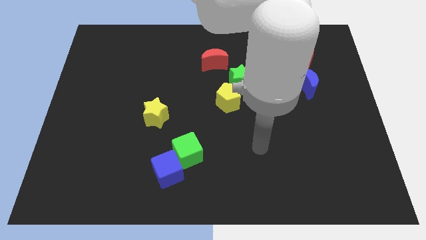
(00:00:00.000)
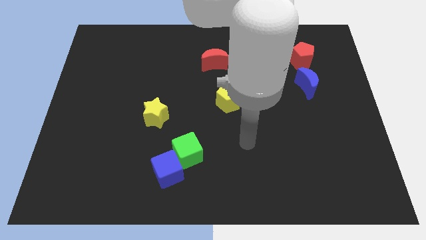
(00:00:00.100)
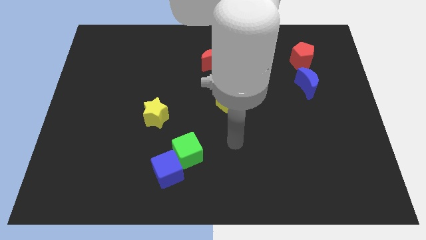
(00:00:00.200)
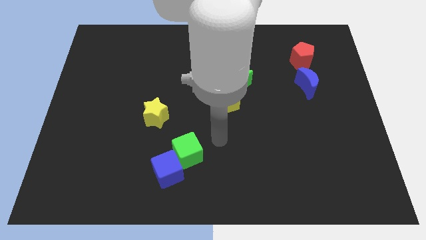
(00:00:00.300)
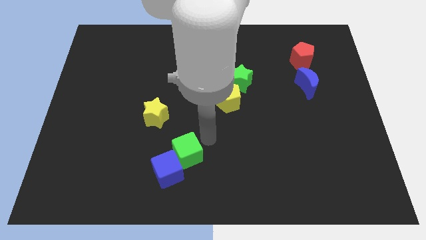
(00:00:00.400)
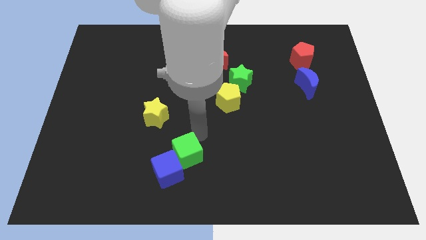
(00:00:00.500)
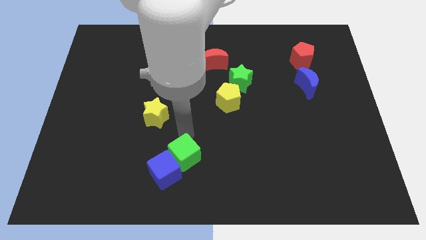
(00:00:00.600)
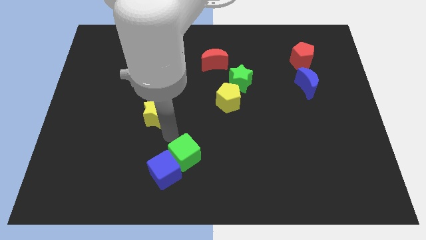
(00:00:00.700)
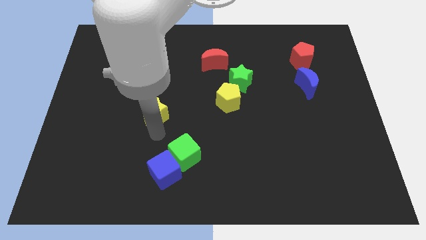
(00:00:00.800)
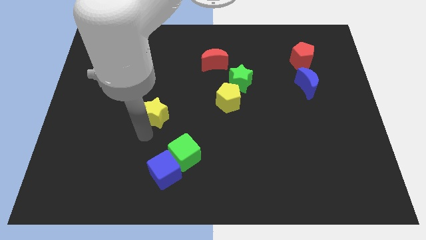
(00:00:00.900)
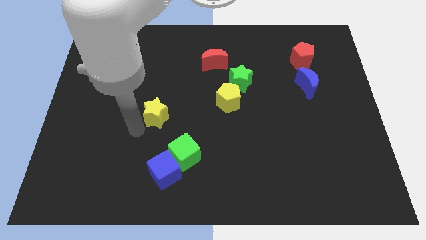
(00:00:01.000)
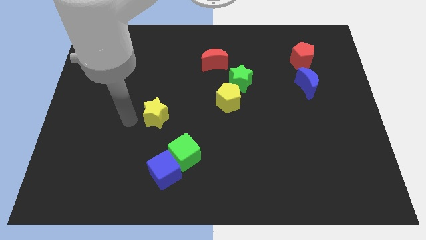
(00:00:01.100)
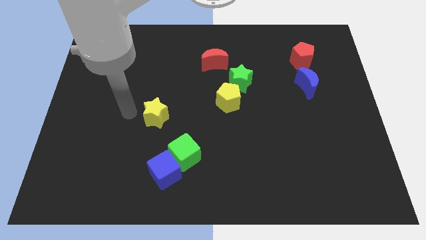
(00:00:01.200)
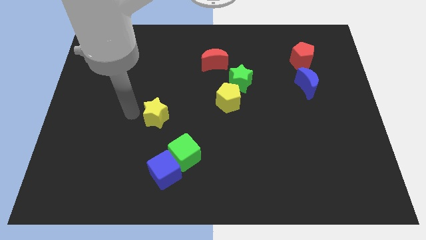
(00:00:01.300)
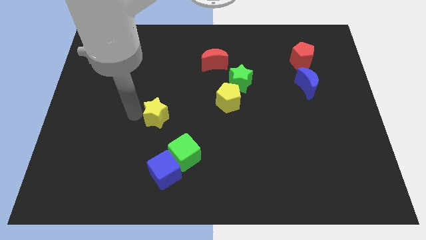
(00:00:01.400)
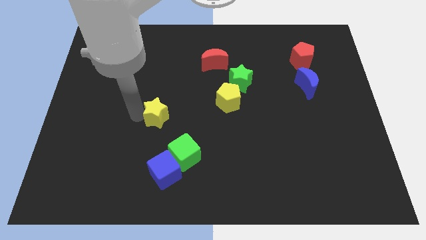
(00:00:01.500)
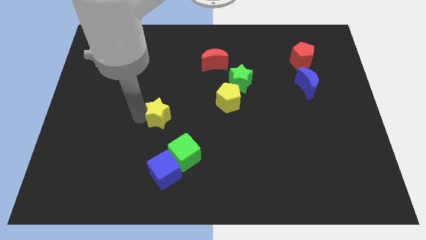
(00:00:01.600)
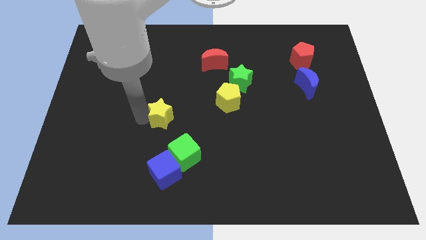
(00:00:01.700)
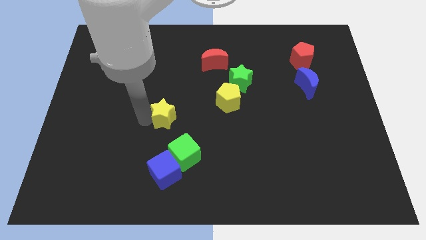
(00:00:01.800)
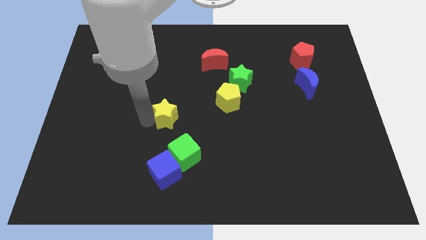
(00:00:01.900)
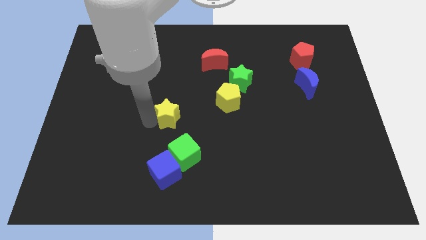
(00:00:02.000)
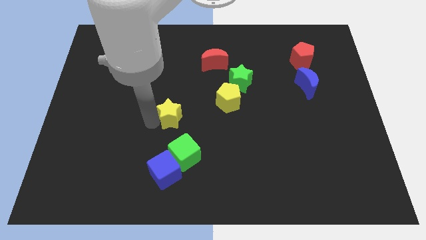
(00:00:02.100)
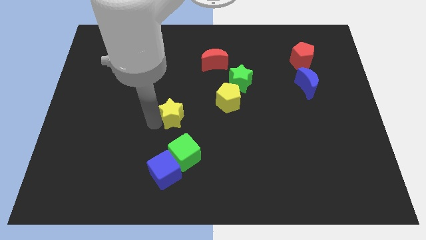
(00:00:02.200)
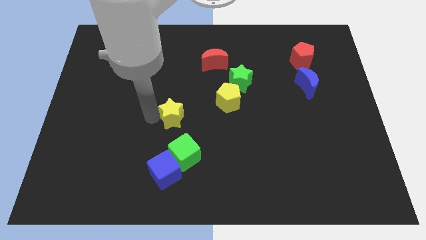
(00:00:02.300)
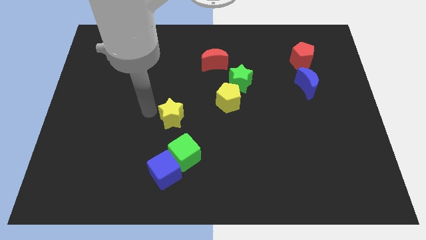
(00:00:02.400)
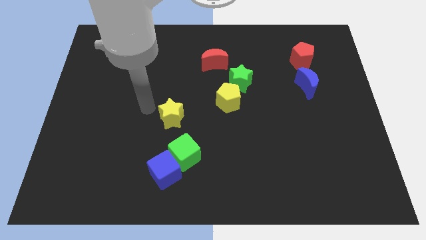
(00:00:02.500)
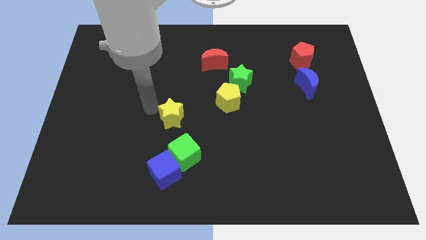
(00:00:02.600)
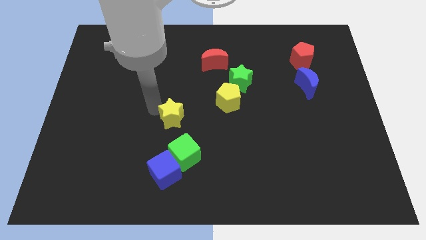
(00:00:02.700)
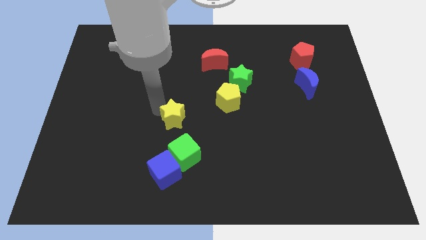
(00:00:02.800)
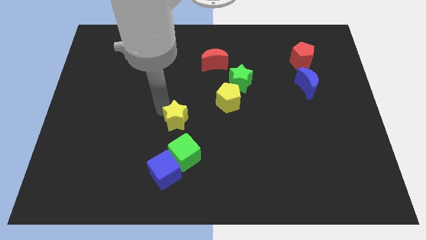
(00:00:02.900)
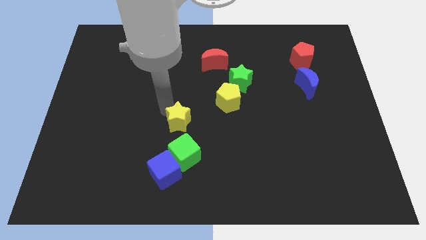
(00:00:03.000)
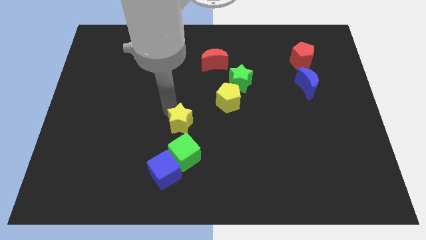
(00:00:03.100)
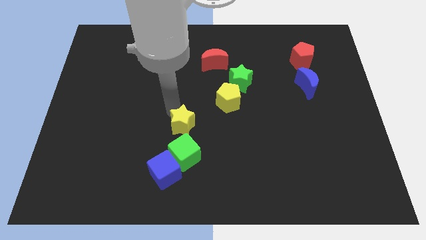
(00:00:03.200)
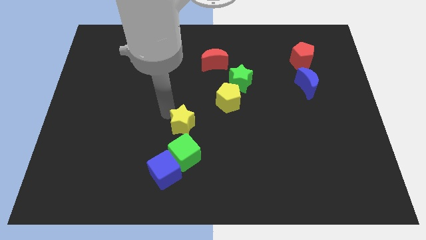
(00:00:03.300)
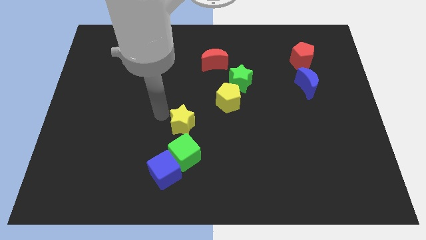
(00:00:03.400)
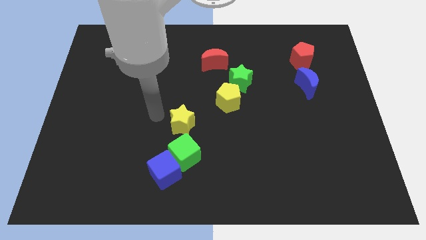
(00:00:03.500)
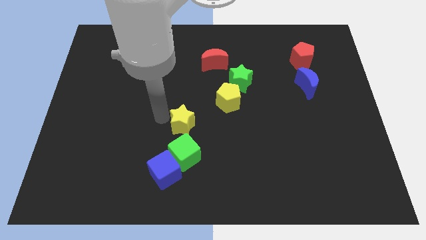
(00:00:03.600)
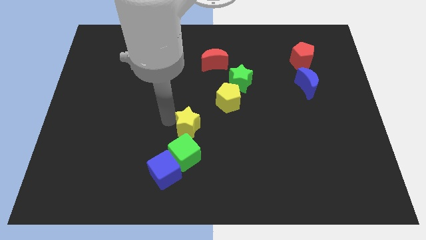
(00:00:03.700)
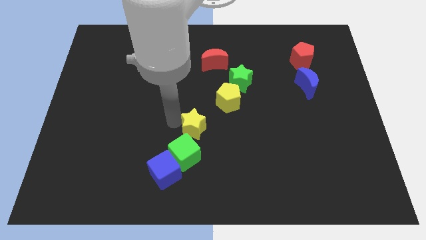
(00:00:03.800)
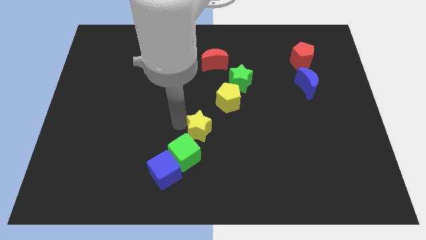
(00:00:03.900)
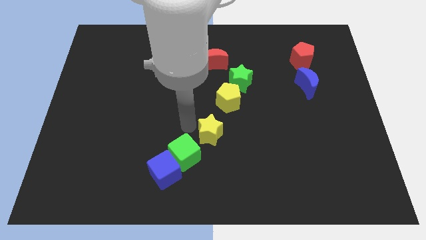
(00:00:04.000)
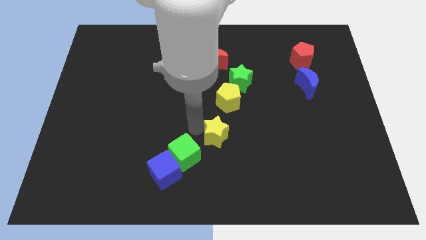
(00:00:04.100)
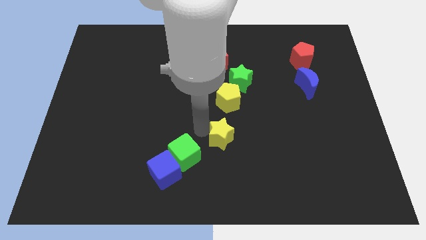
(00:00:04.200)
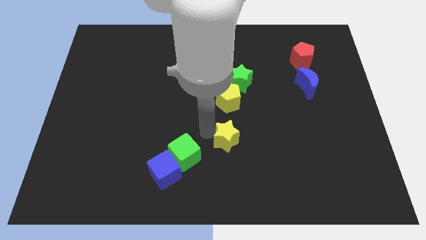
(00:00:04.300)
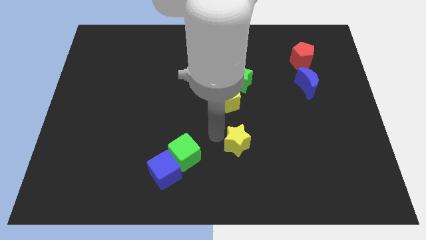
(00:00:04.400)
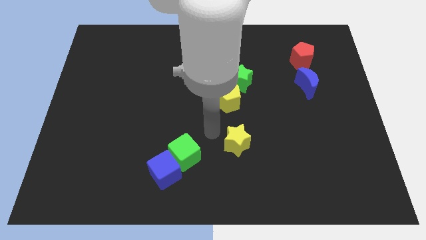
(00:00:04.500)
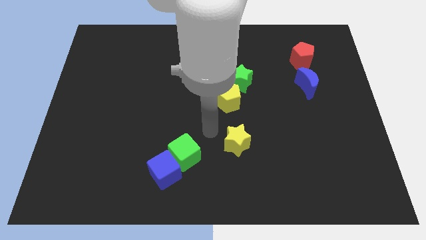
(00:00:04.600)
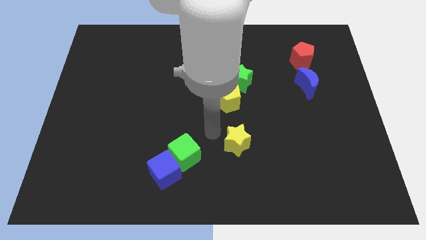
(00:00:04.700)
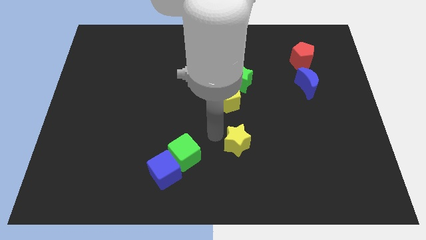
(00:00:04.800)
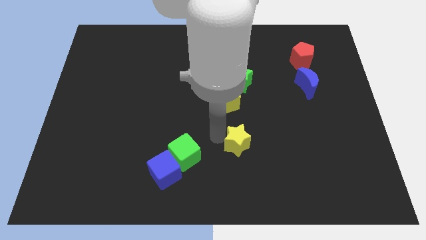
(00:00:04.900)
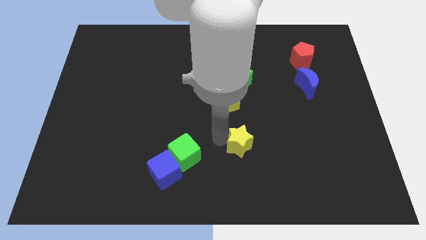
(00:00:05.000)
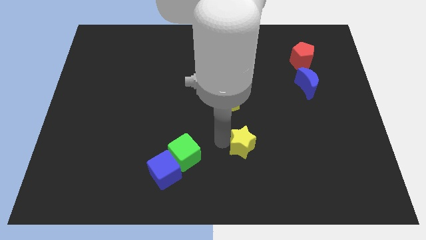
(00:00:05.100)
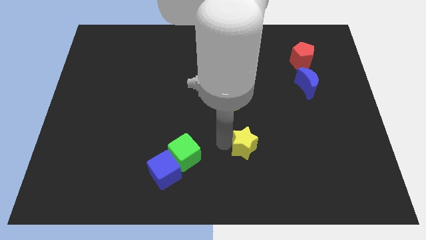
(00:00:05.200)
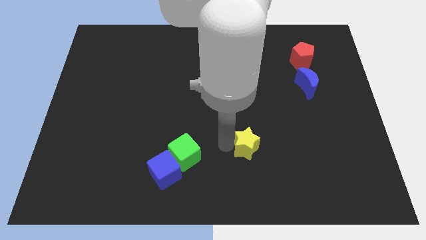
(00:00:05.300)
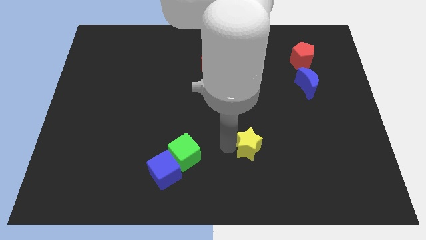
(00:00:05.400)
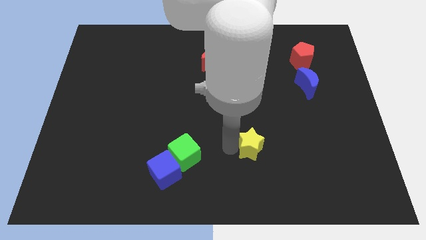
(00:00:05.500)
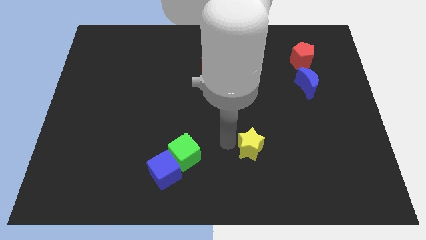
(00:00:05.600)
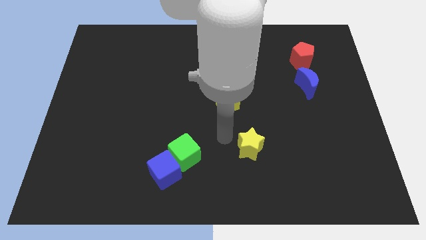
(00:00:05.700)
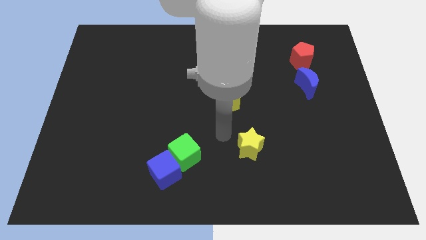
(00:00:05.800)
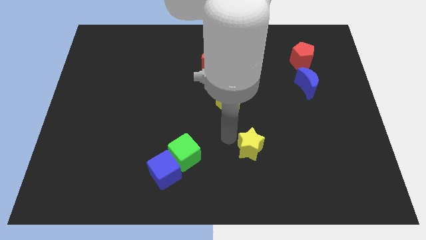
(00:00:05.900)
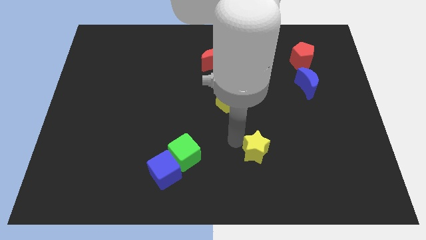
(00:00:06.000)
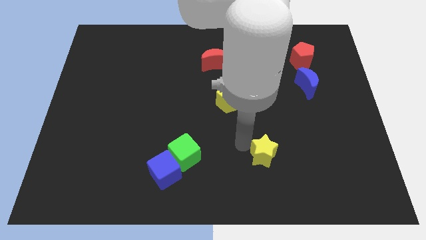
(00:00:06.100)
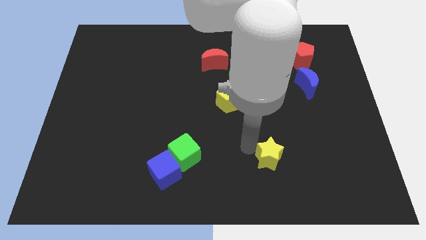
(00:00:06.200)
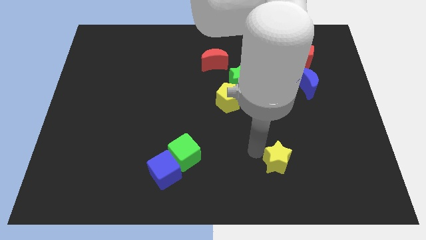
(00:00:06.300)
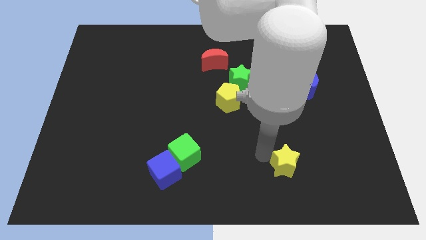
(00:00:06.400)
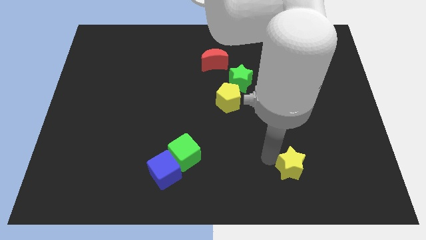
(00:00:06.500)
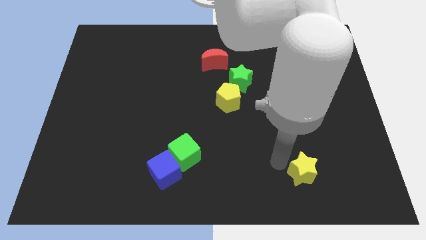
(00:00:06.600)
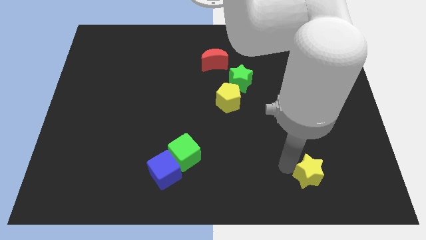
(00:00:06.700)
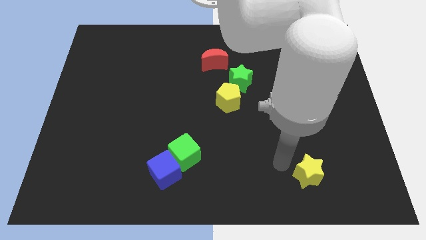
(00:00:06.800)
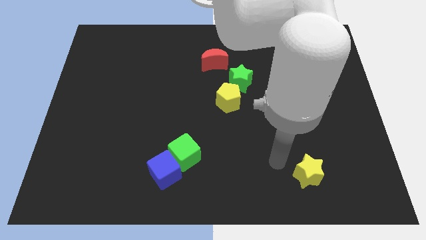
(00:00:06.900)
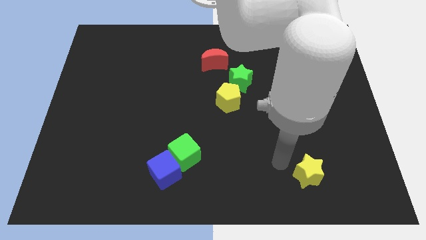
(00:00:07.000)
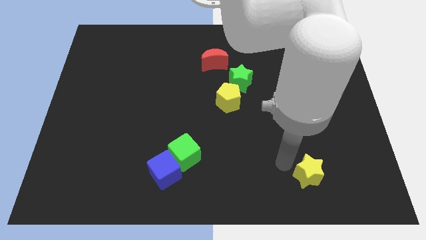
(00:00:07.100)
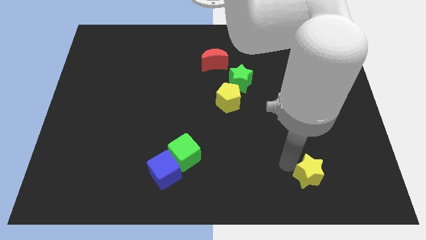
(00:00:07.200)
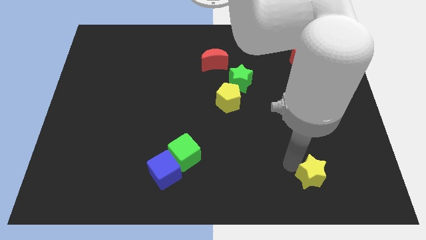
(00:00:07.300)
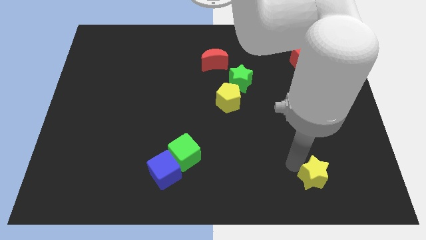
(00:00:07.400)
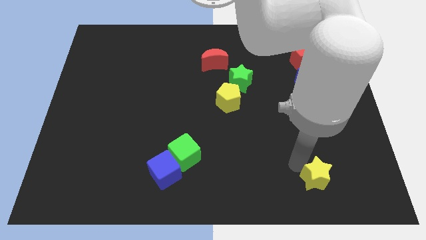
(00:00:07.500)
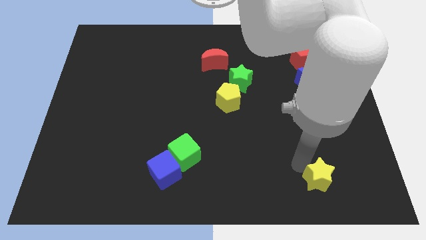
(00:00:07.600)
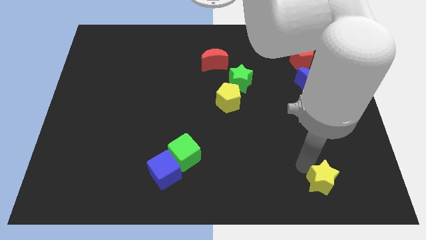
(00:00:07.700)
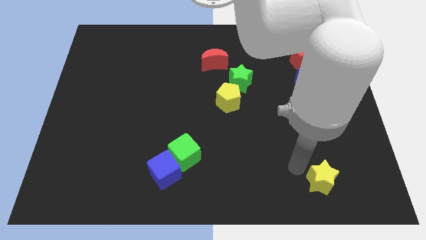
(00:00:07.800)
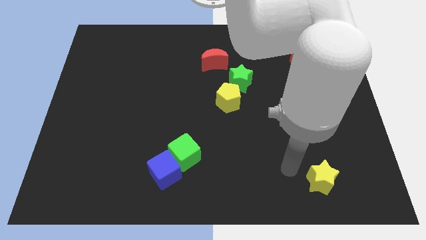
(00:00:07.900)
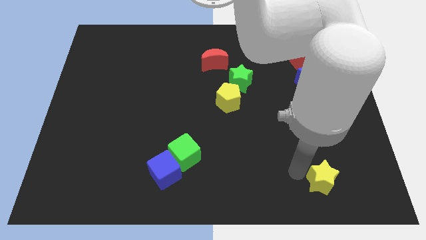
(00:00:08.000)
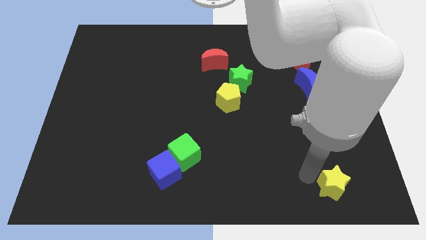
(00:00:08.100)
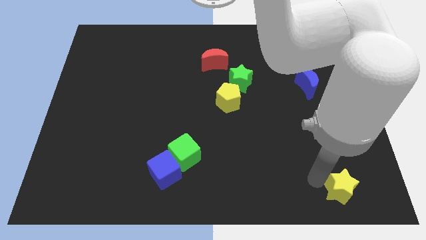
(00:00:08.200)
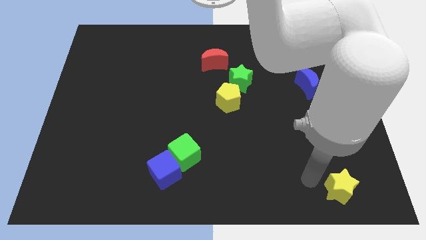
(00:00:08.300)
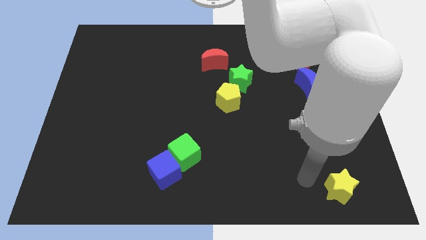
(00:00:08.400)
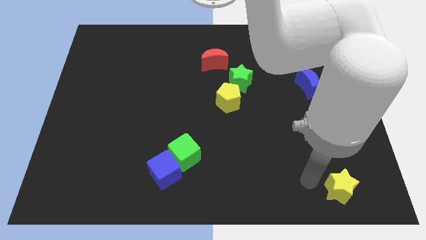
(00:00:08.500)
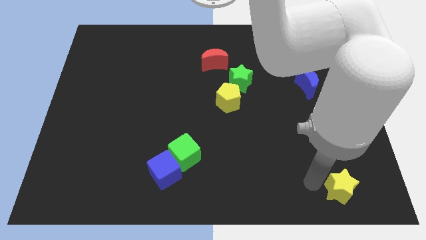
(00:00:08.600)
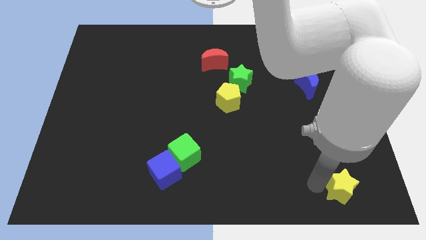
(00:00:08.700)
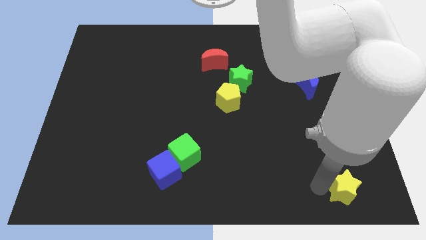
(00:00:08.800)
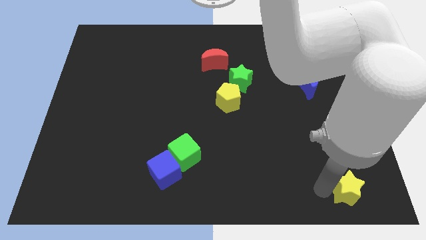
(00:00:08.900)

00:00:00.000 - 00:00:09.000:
push the yellow star to the bottom right corner
